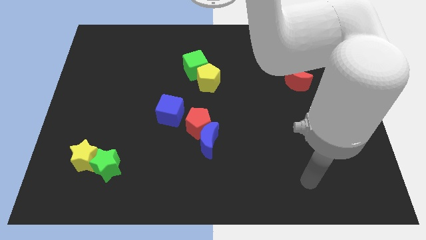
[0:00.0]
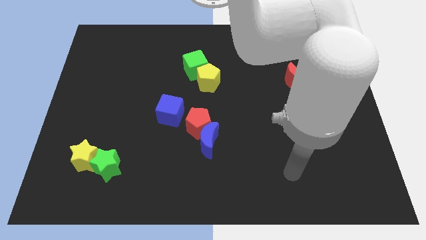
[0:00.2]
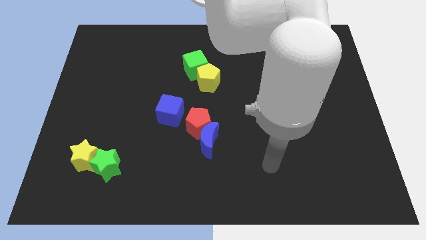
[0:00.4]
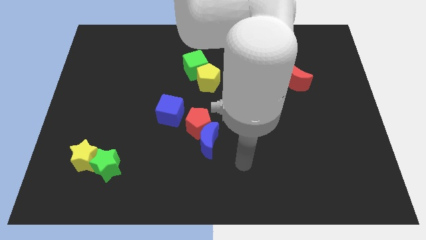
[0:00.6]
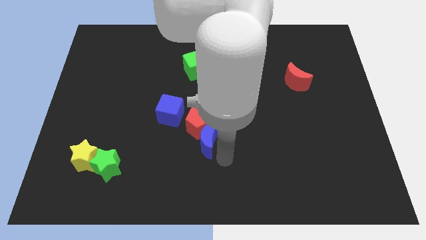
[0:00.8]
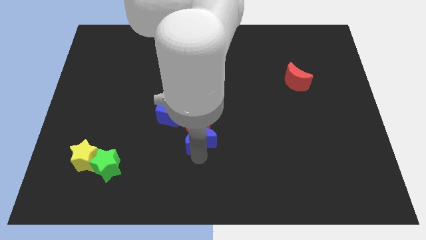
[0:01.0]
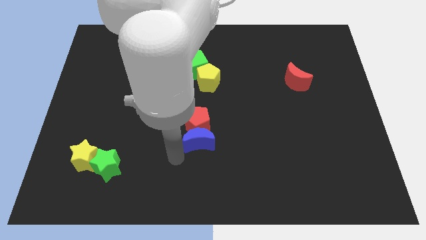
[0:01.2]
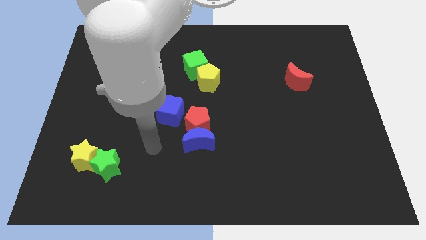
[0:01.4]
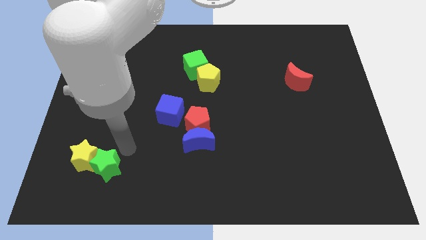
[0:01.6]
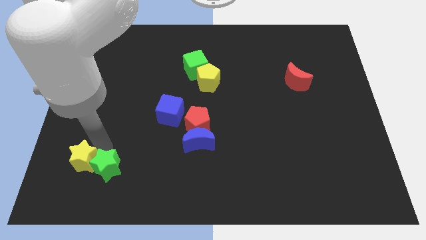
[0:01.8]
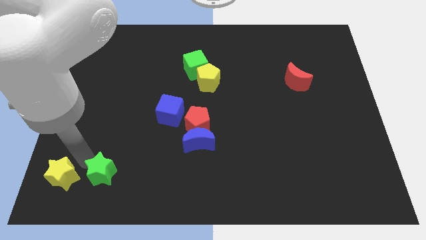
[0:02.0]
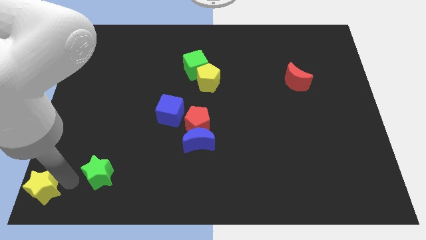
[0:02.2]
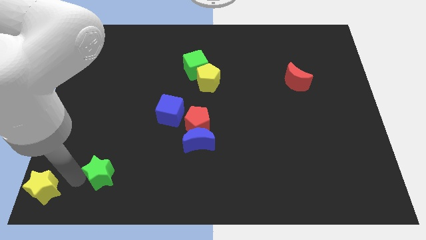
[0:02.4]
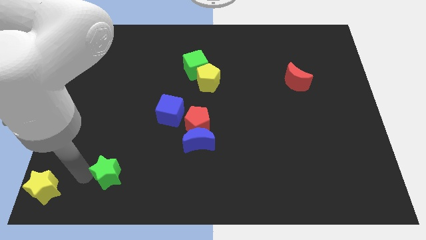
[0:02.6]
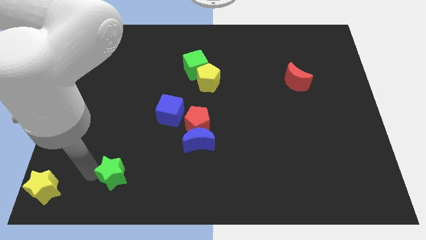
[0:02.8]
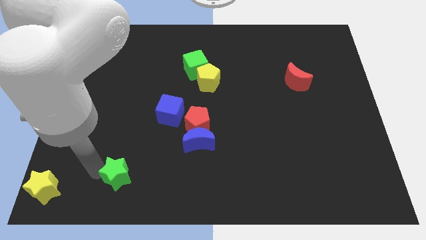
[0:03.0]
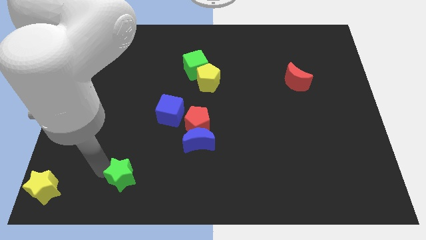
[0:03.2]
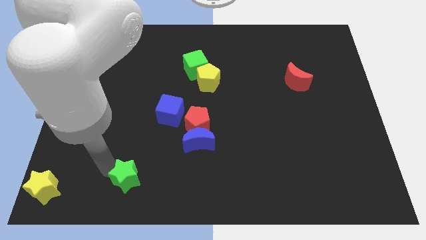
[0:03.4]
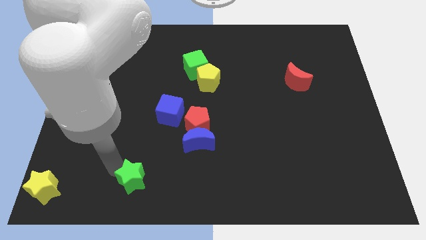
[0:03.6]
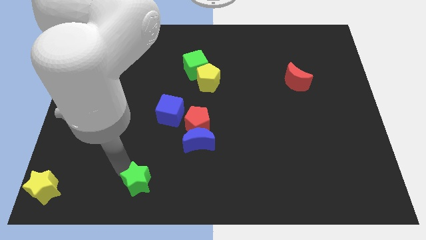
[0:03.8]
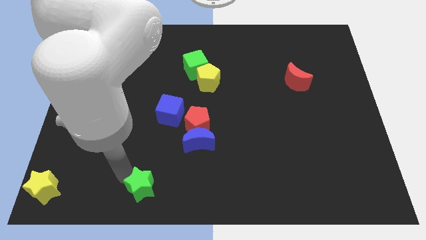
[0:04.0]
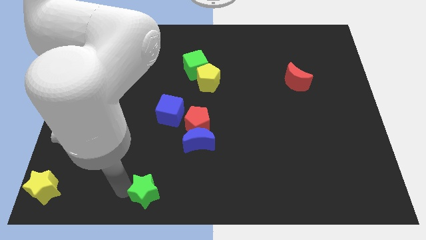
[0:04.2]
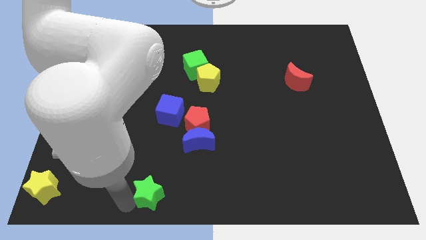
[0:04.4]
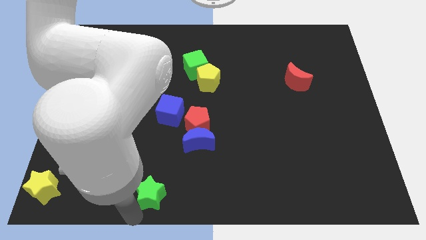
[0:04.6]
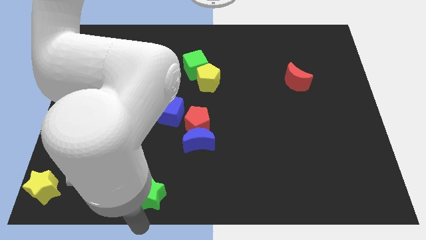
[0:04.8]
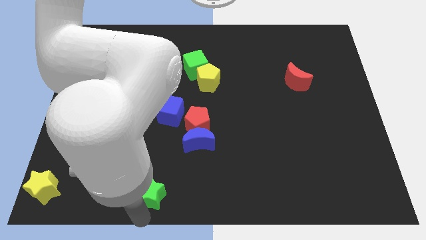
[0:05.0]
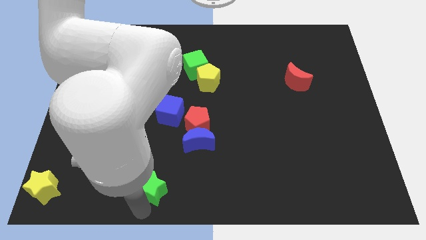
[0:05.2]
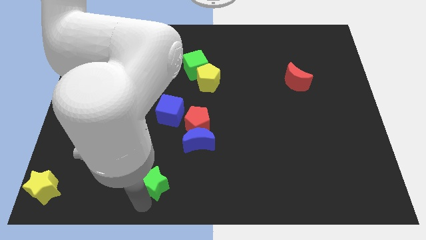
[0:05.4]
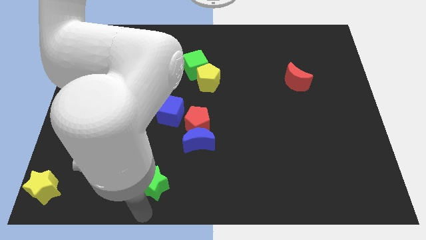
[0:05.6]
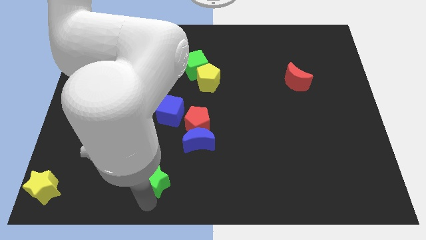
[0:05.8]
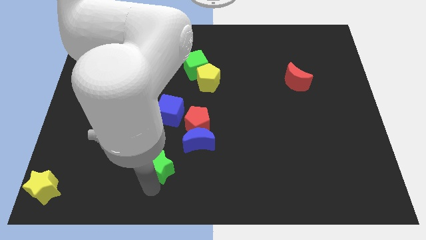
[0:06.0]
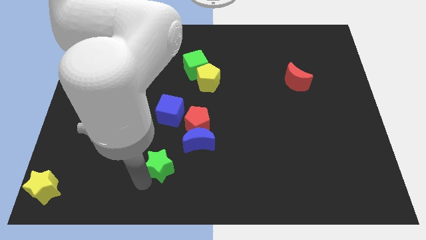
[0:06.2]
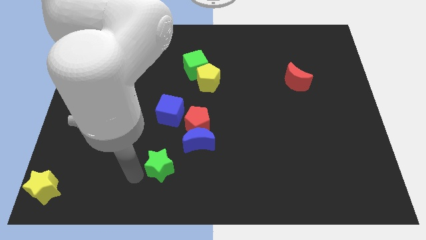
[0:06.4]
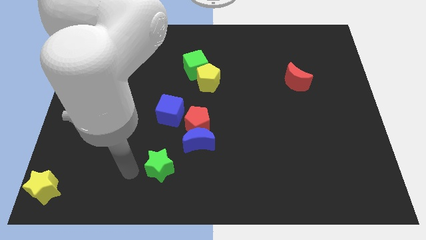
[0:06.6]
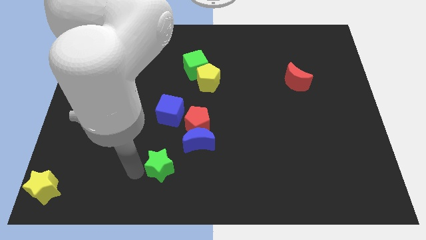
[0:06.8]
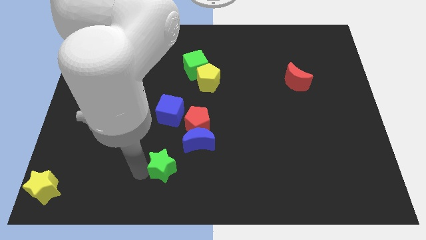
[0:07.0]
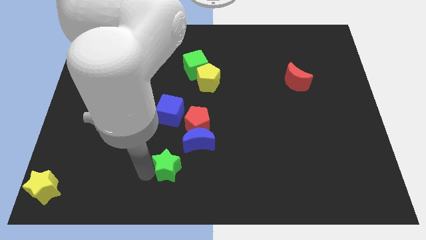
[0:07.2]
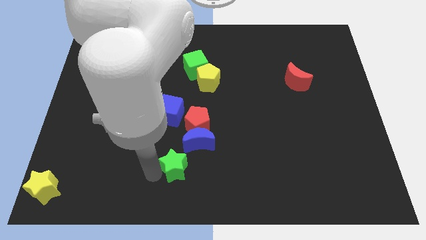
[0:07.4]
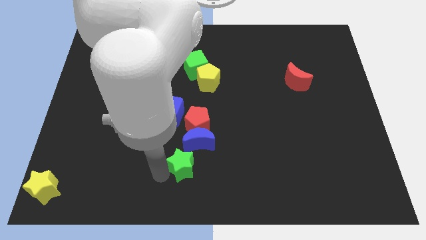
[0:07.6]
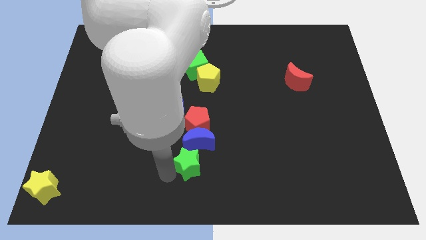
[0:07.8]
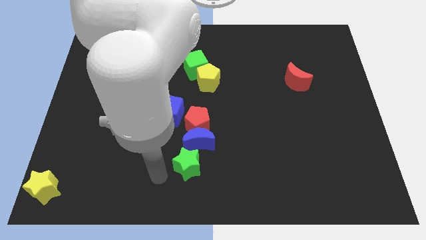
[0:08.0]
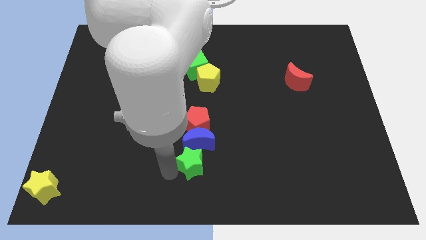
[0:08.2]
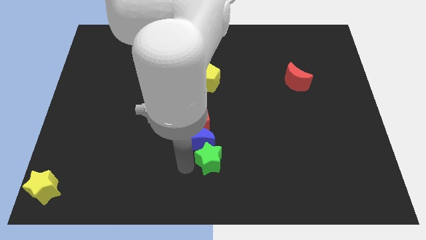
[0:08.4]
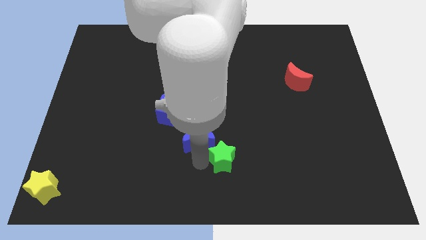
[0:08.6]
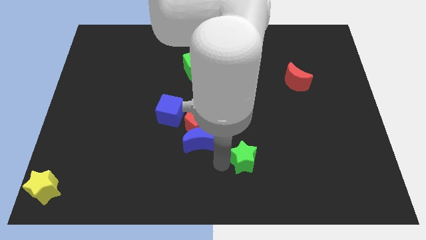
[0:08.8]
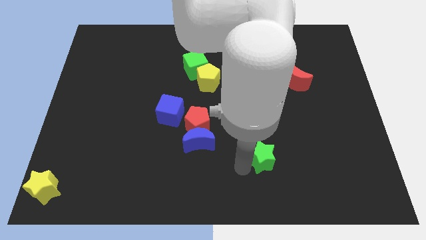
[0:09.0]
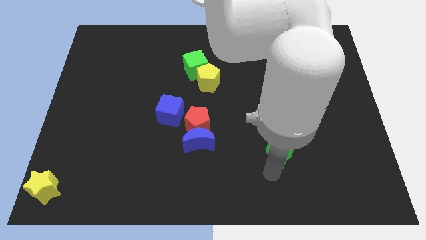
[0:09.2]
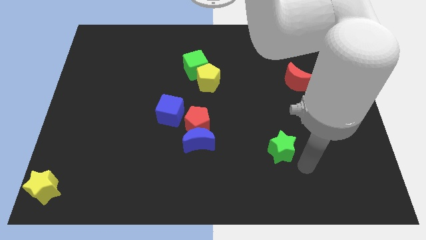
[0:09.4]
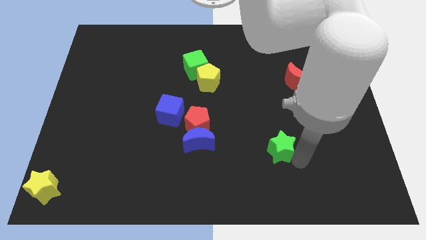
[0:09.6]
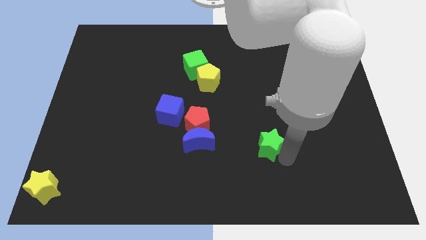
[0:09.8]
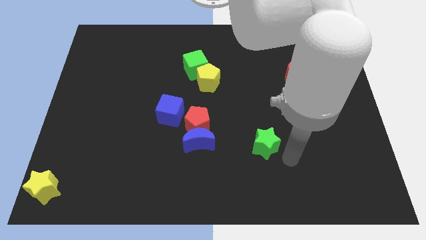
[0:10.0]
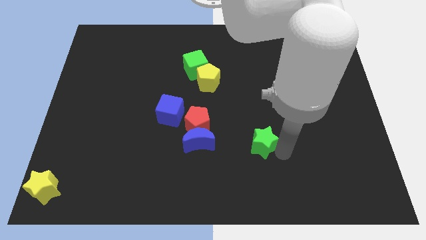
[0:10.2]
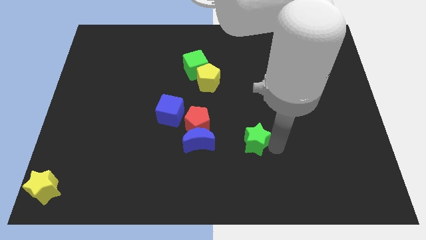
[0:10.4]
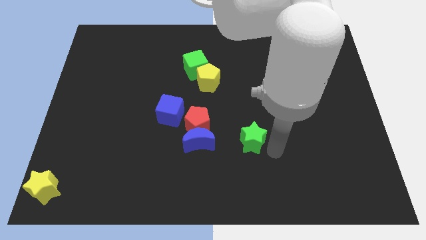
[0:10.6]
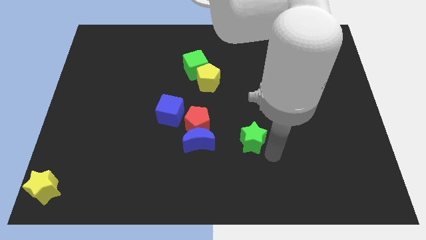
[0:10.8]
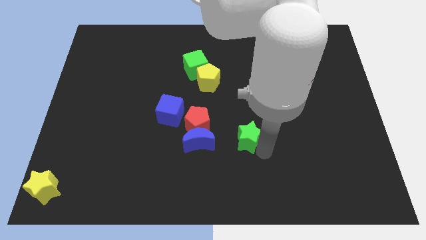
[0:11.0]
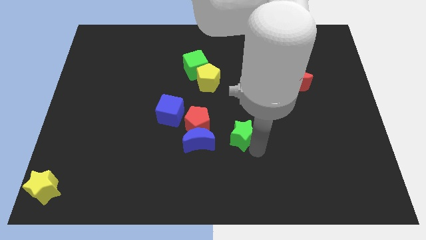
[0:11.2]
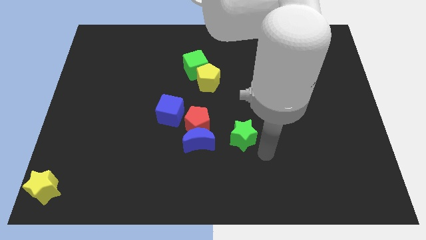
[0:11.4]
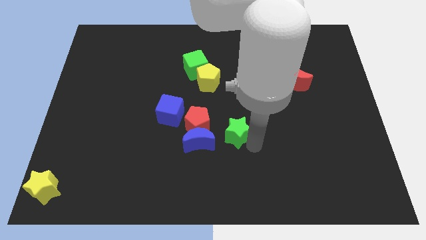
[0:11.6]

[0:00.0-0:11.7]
push the green star diagonally up and to the right of the blue moon

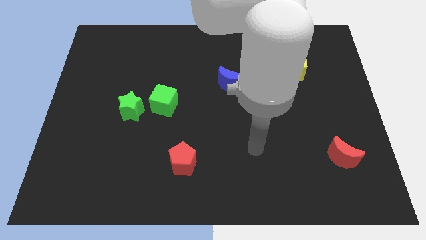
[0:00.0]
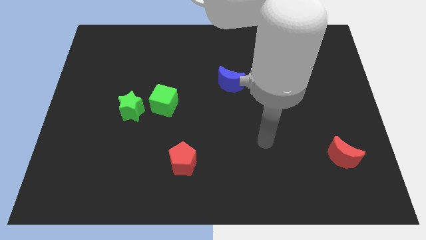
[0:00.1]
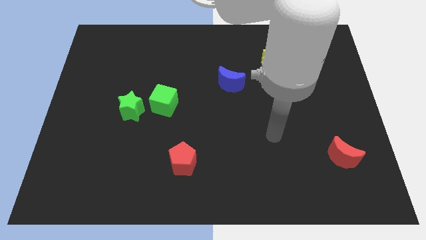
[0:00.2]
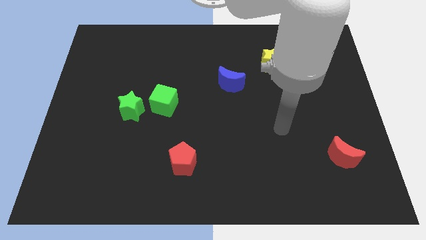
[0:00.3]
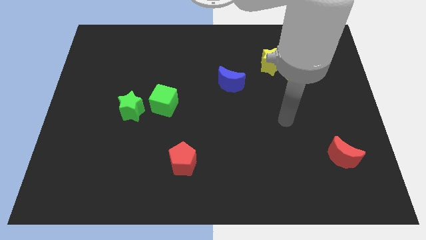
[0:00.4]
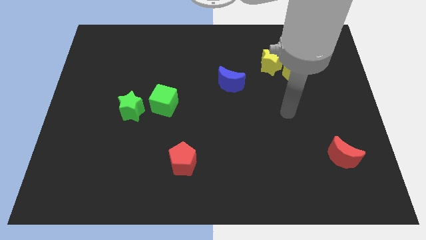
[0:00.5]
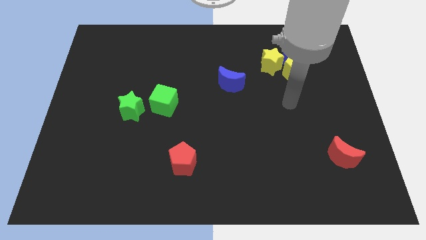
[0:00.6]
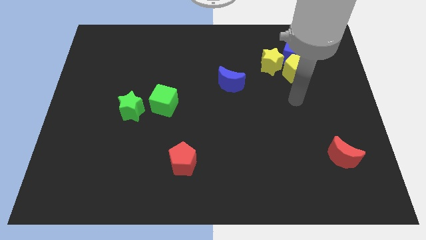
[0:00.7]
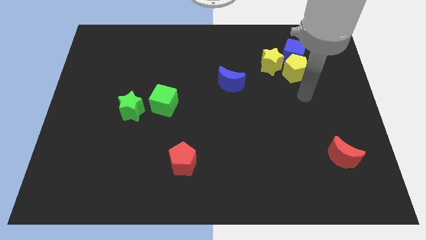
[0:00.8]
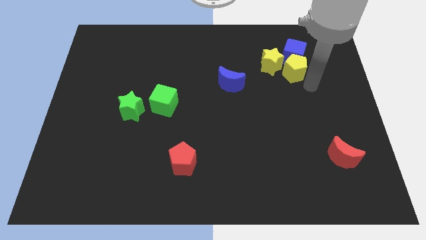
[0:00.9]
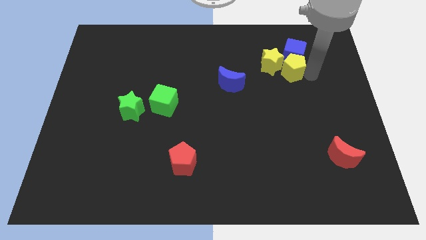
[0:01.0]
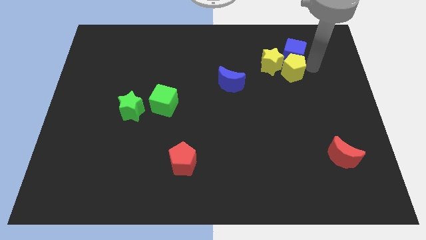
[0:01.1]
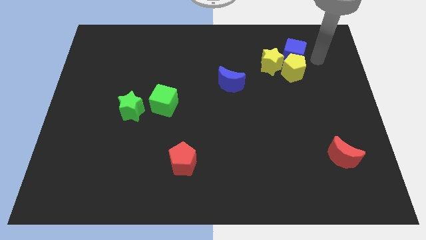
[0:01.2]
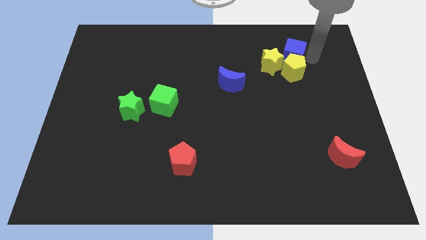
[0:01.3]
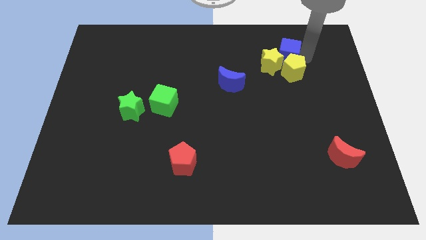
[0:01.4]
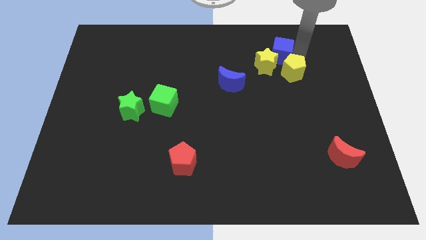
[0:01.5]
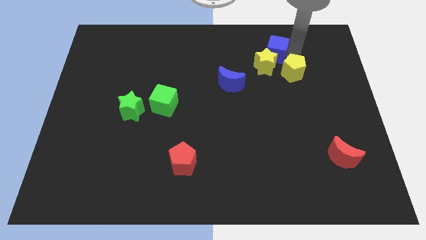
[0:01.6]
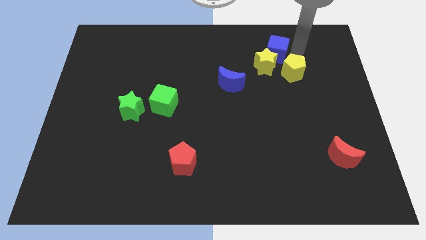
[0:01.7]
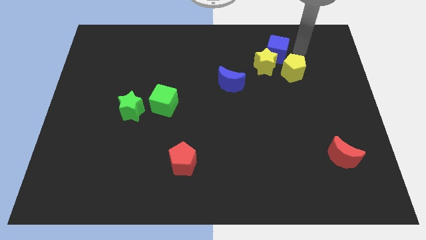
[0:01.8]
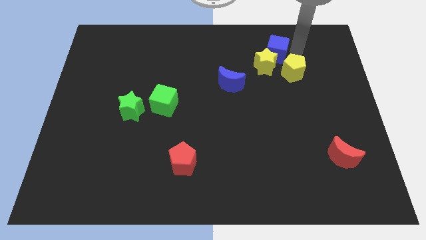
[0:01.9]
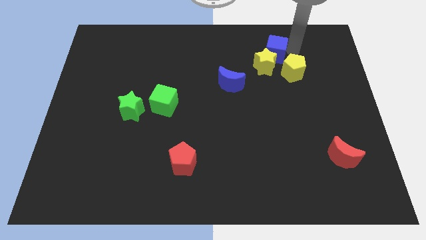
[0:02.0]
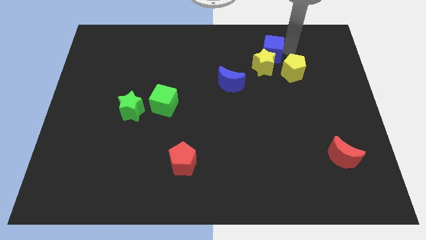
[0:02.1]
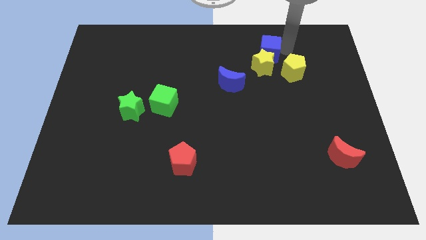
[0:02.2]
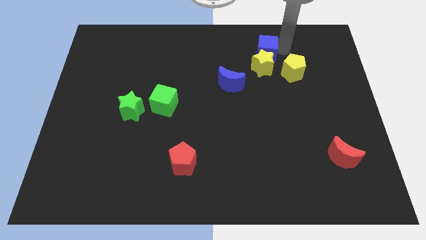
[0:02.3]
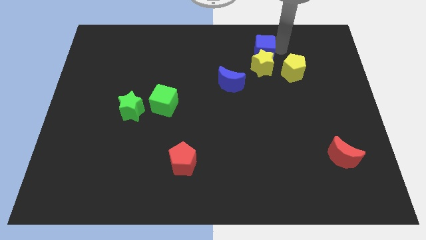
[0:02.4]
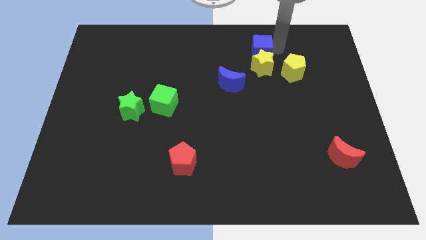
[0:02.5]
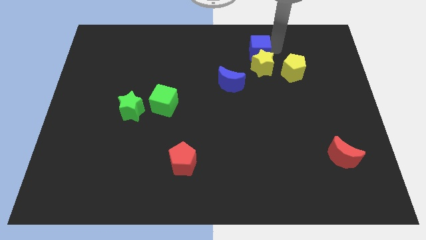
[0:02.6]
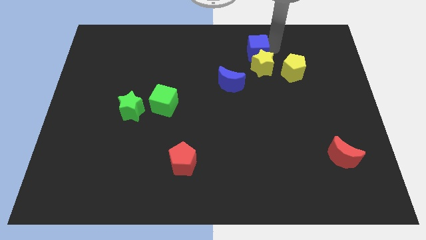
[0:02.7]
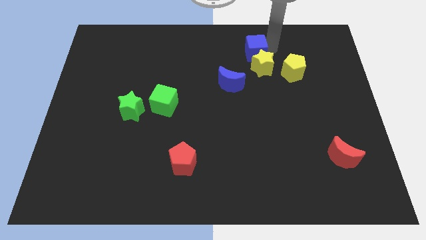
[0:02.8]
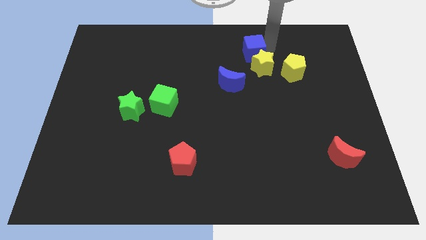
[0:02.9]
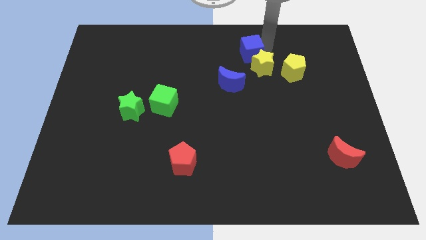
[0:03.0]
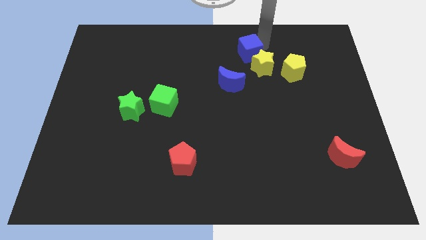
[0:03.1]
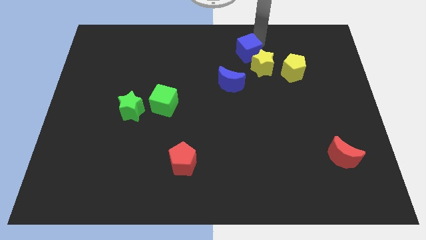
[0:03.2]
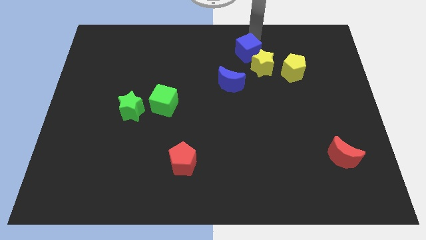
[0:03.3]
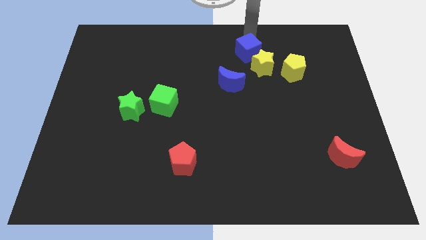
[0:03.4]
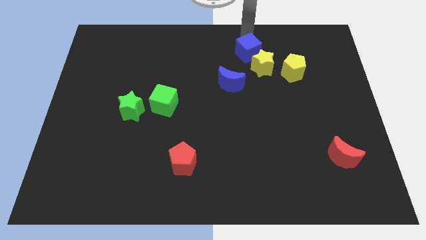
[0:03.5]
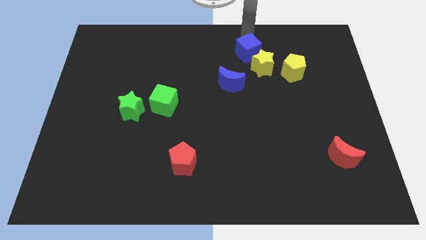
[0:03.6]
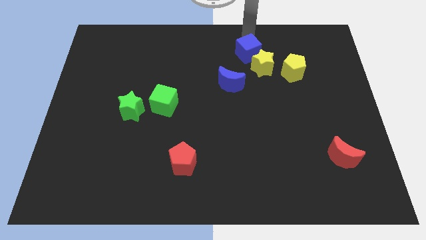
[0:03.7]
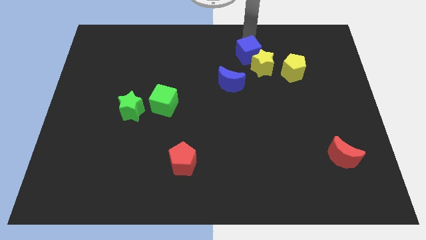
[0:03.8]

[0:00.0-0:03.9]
push the blue cube to the top right of the blue moon
